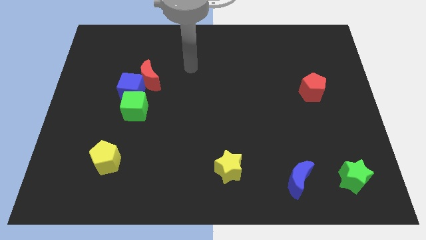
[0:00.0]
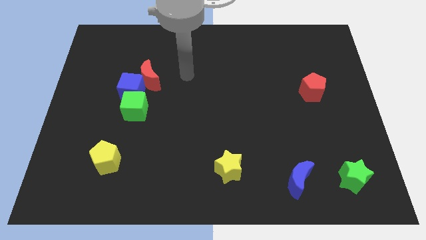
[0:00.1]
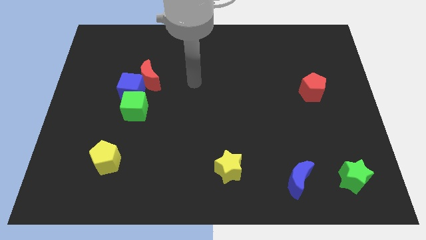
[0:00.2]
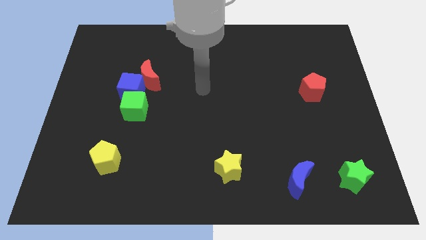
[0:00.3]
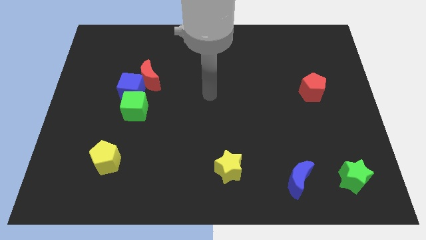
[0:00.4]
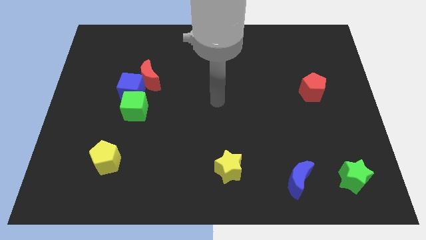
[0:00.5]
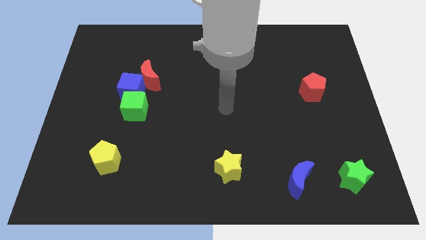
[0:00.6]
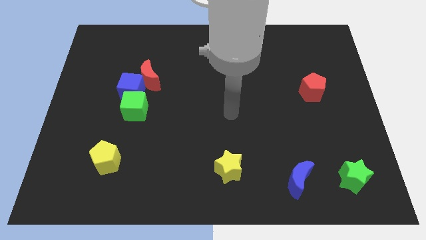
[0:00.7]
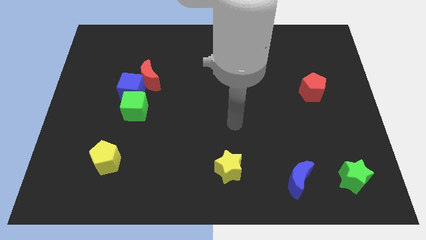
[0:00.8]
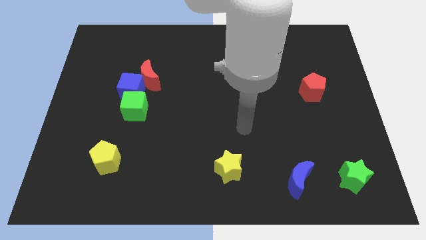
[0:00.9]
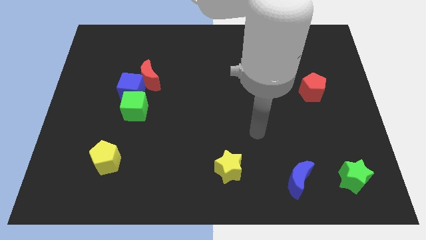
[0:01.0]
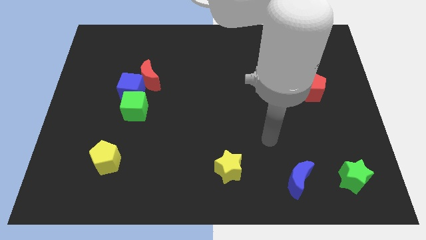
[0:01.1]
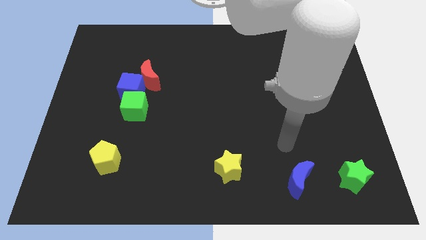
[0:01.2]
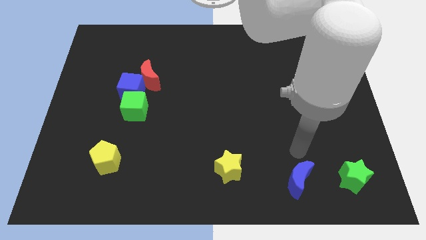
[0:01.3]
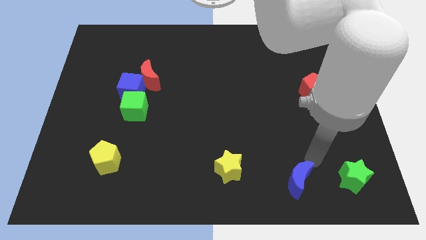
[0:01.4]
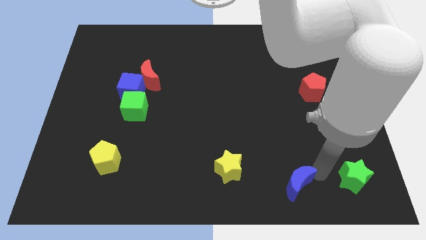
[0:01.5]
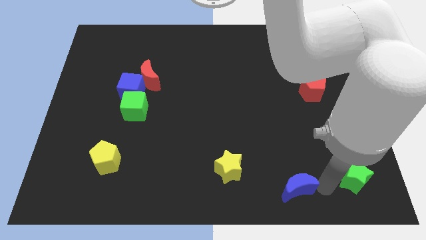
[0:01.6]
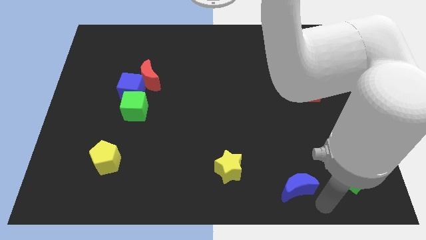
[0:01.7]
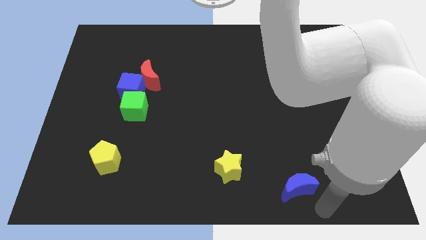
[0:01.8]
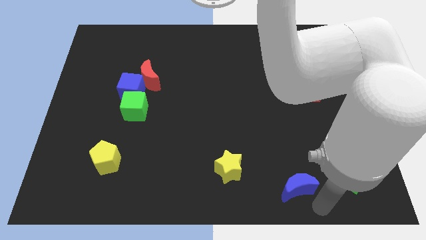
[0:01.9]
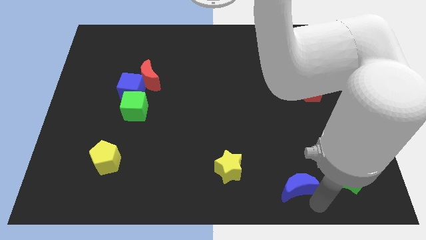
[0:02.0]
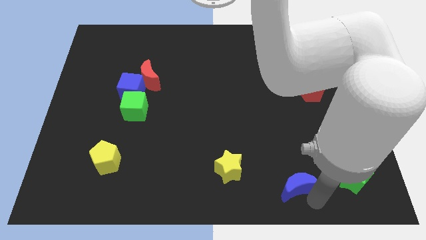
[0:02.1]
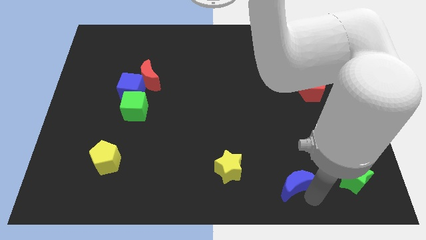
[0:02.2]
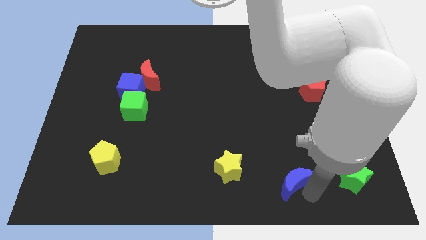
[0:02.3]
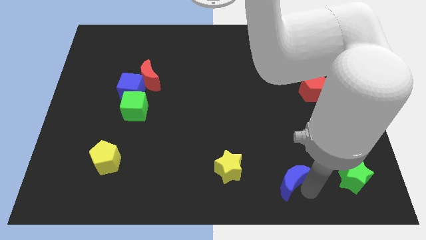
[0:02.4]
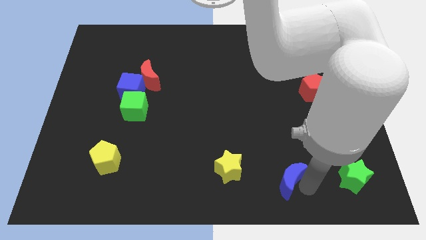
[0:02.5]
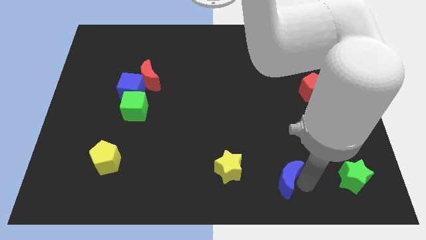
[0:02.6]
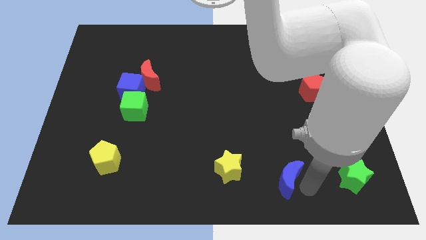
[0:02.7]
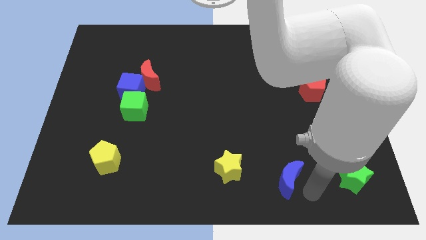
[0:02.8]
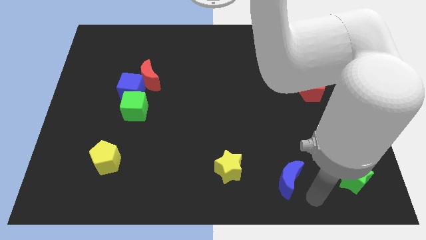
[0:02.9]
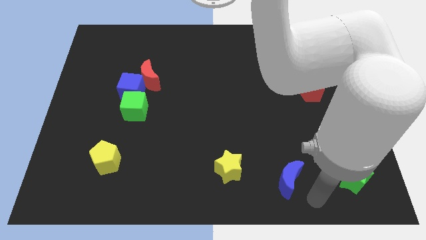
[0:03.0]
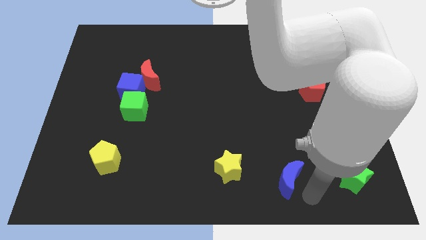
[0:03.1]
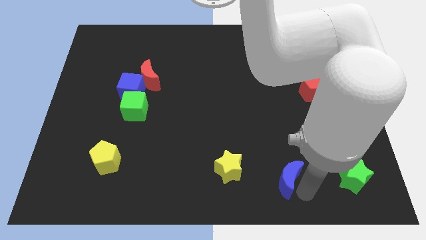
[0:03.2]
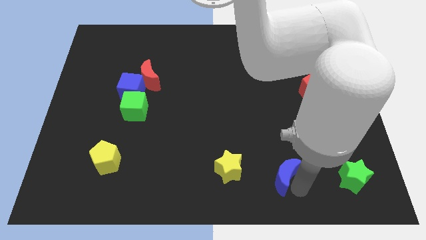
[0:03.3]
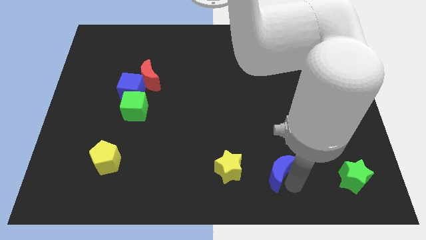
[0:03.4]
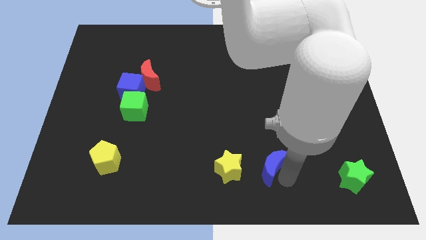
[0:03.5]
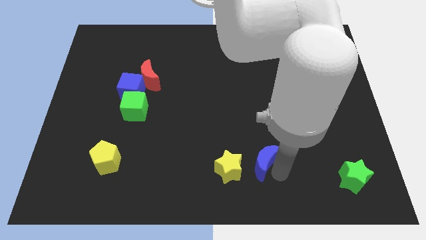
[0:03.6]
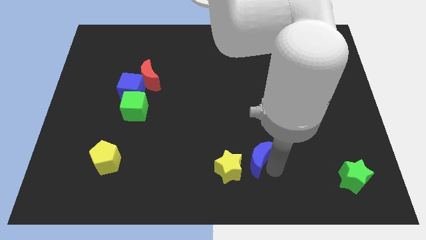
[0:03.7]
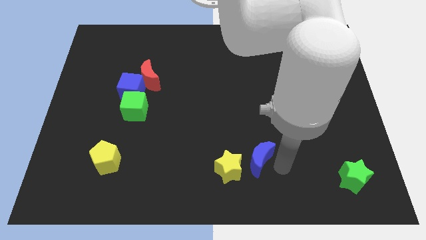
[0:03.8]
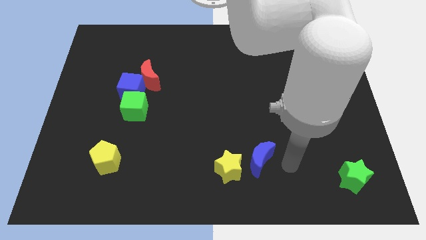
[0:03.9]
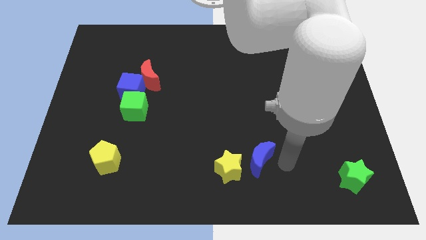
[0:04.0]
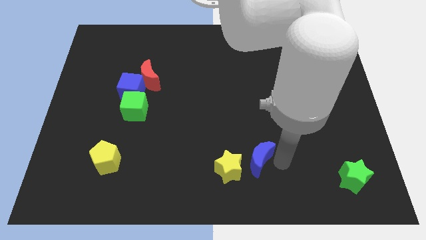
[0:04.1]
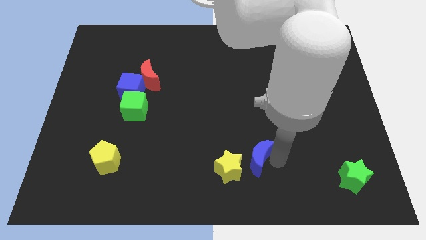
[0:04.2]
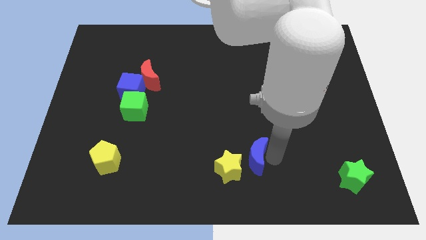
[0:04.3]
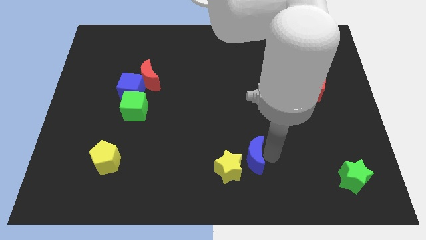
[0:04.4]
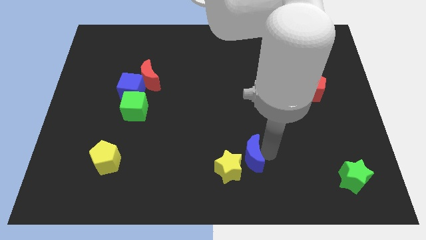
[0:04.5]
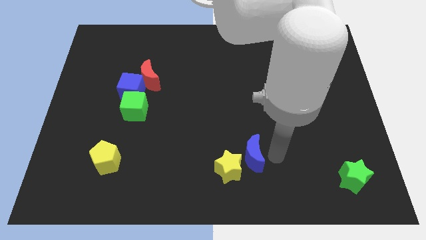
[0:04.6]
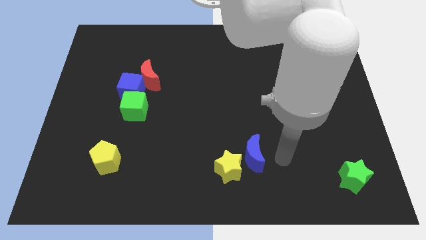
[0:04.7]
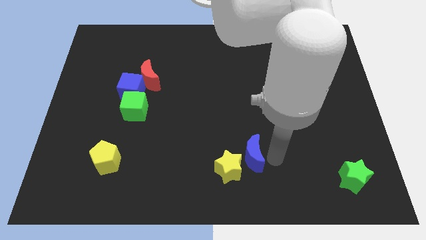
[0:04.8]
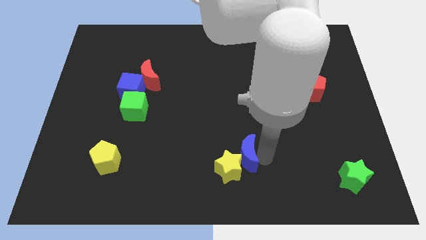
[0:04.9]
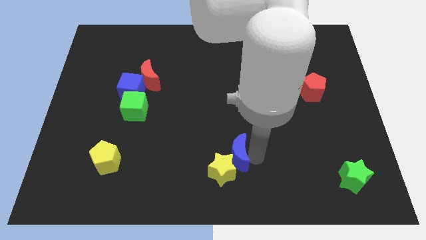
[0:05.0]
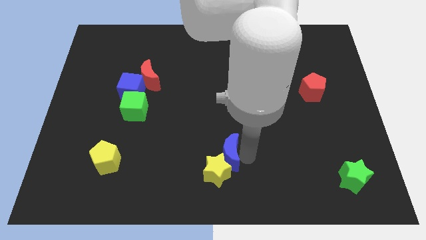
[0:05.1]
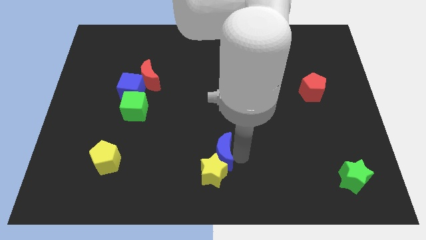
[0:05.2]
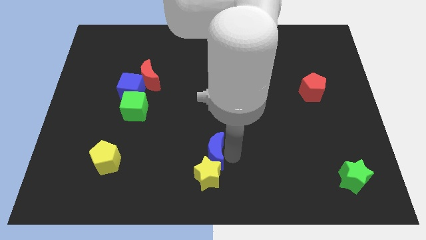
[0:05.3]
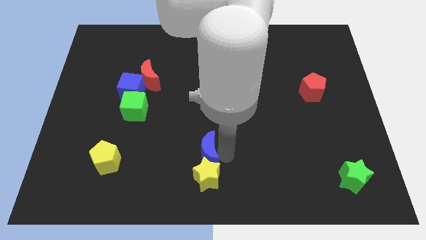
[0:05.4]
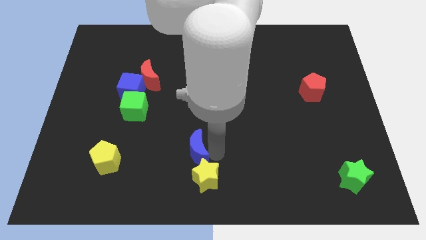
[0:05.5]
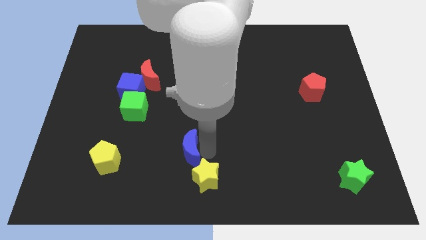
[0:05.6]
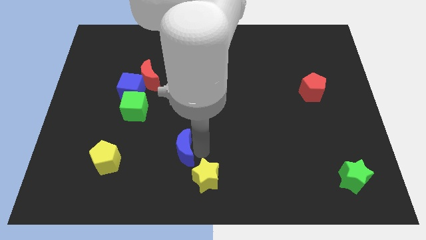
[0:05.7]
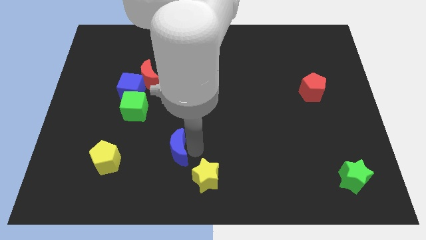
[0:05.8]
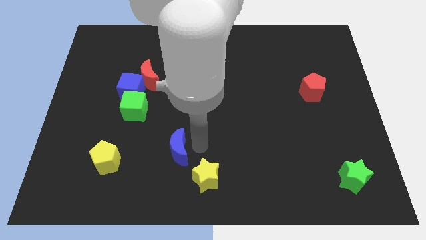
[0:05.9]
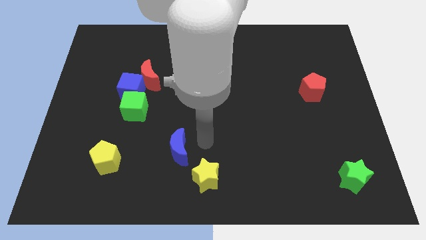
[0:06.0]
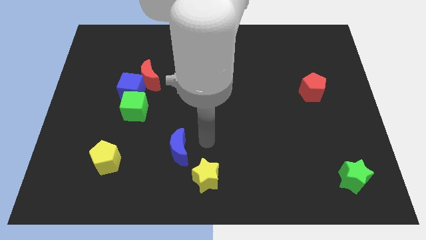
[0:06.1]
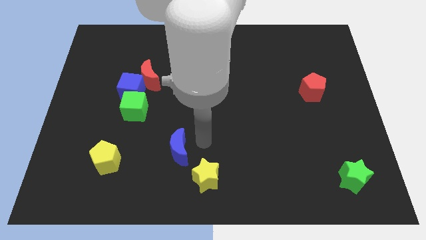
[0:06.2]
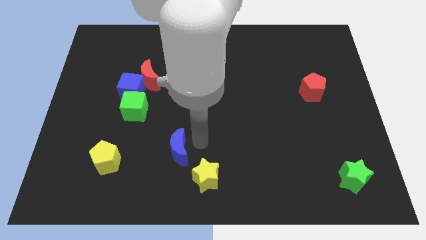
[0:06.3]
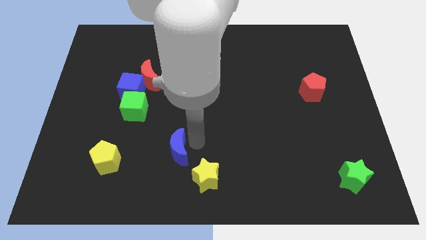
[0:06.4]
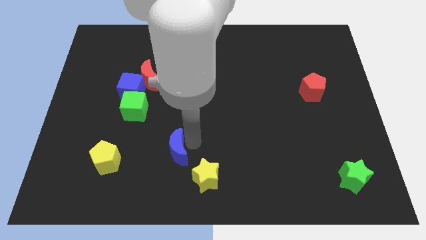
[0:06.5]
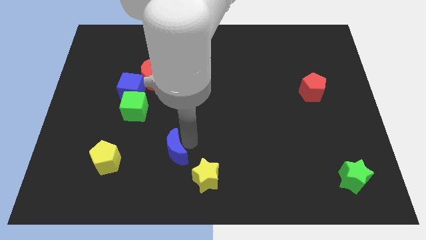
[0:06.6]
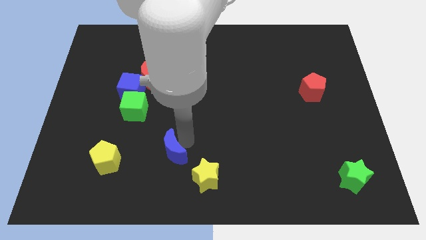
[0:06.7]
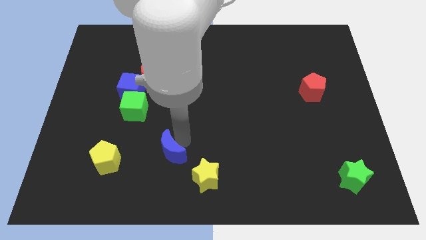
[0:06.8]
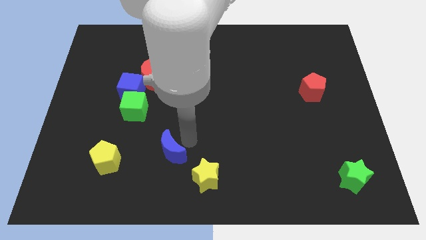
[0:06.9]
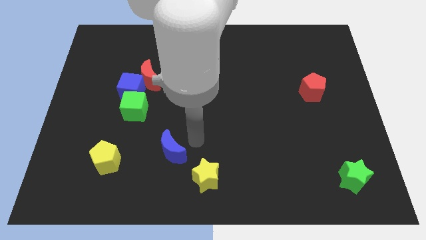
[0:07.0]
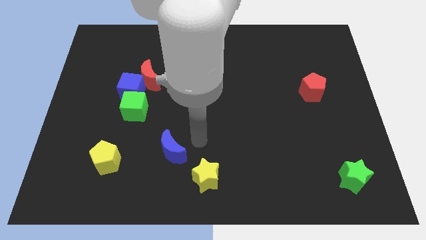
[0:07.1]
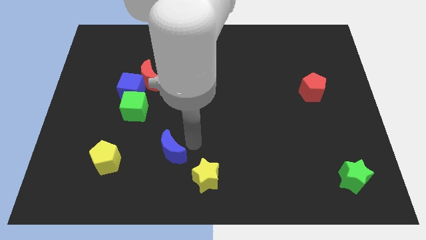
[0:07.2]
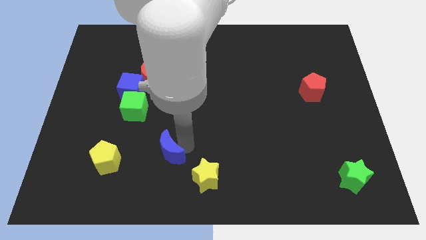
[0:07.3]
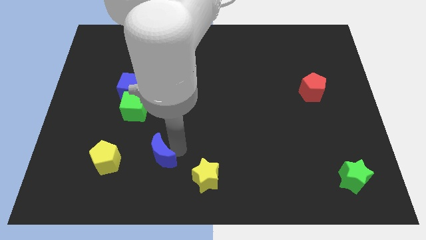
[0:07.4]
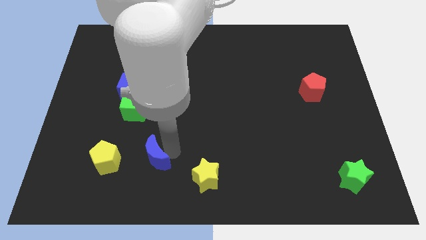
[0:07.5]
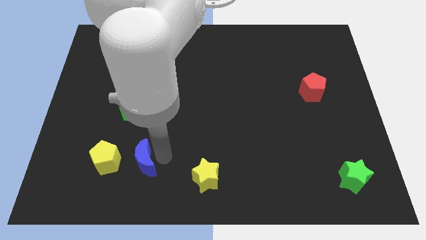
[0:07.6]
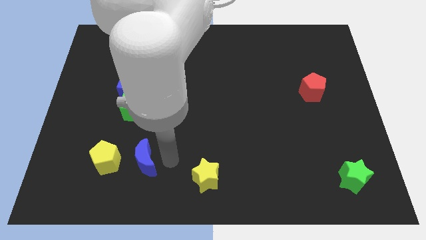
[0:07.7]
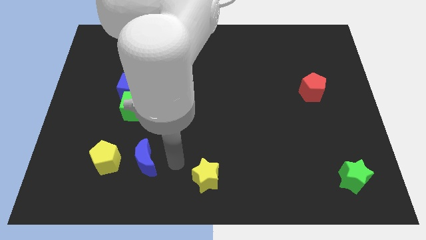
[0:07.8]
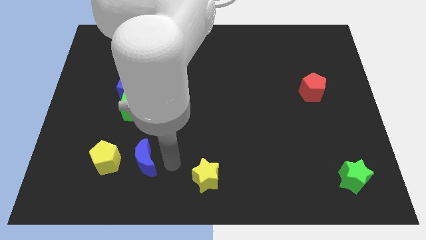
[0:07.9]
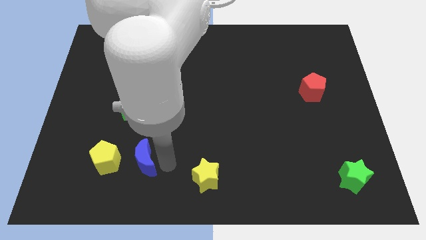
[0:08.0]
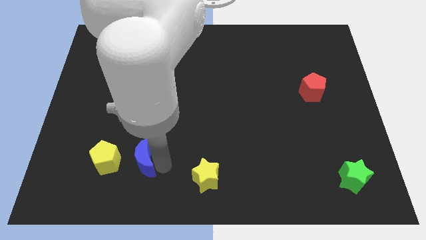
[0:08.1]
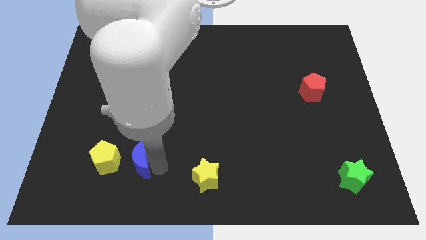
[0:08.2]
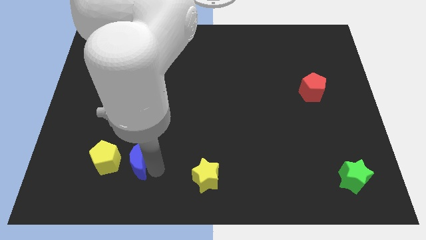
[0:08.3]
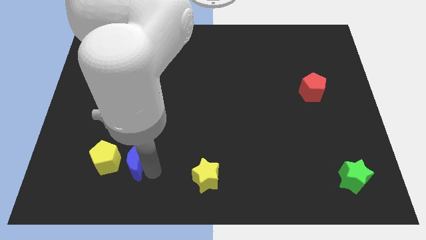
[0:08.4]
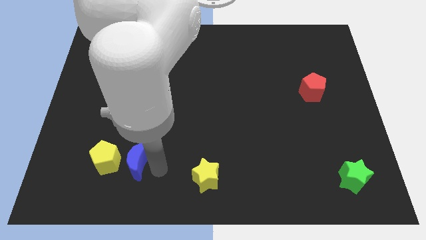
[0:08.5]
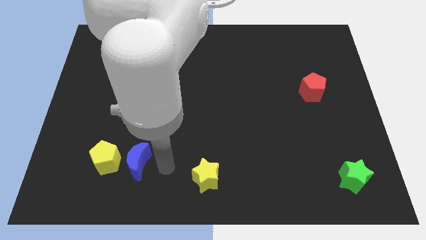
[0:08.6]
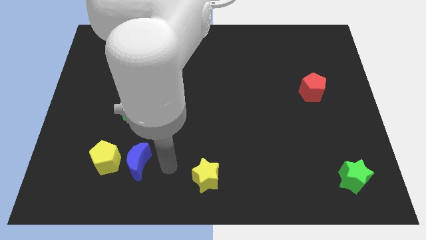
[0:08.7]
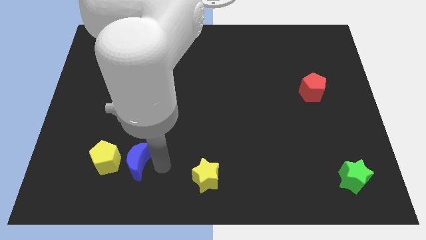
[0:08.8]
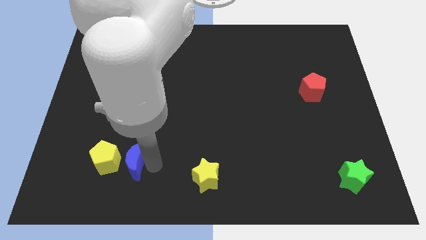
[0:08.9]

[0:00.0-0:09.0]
put the blue moon towards the yellow pentagon
